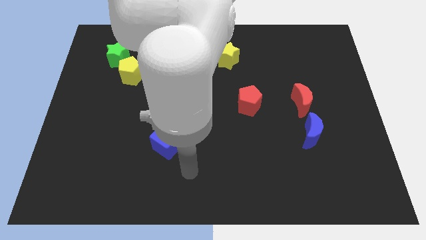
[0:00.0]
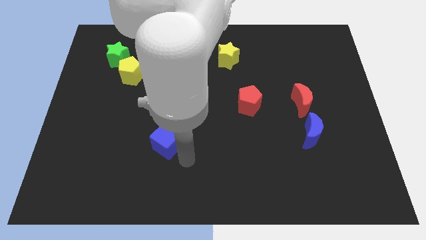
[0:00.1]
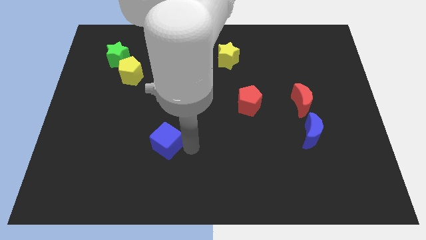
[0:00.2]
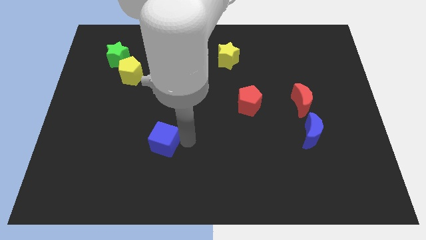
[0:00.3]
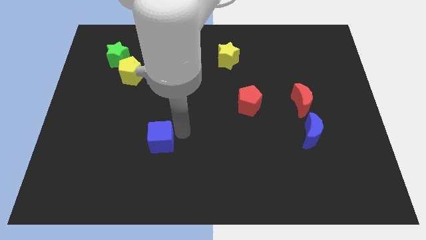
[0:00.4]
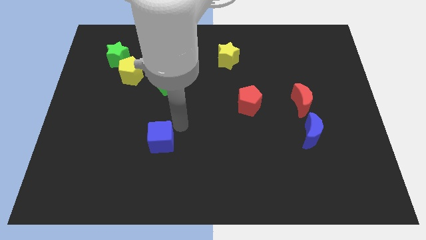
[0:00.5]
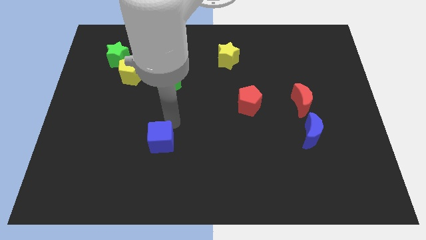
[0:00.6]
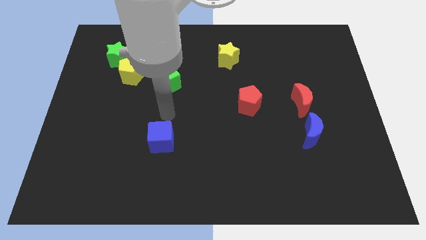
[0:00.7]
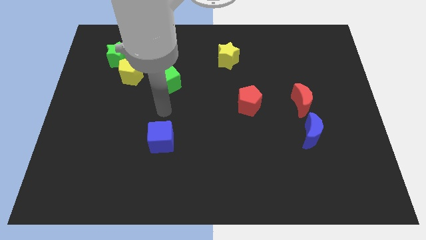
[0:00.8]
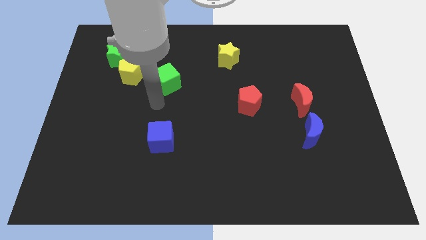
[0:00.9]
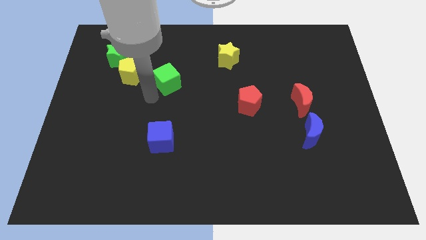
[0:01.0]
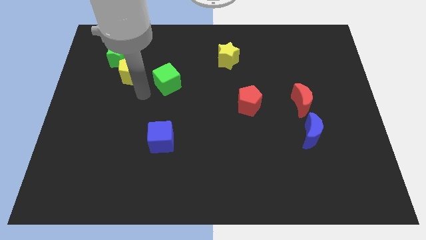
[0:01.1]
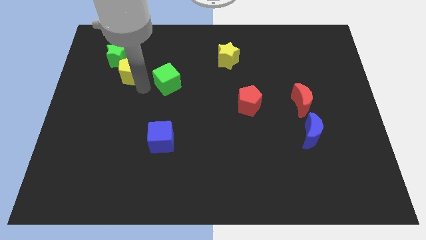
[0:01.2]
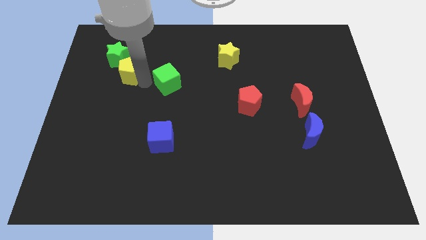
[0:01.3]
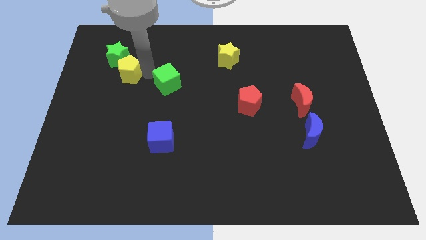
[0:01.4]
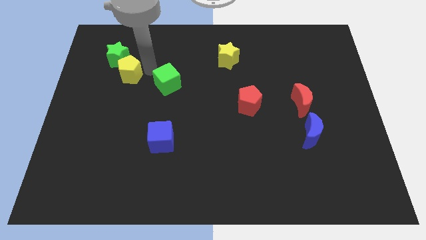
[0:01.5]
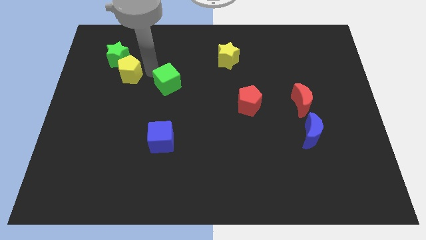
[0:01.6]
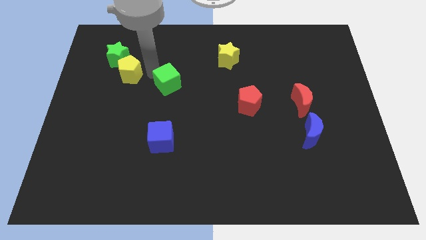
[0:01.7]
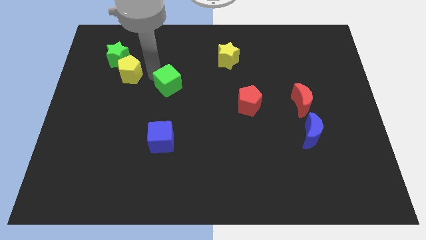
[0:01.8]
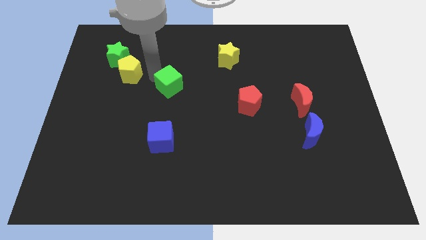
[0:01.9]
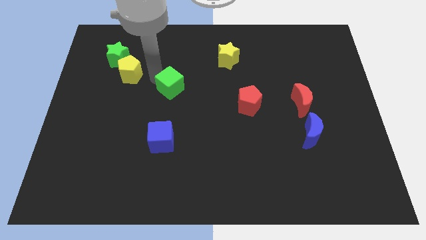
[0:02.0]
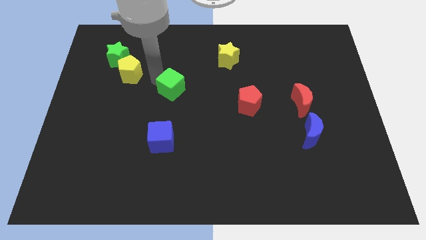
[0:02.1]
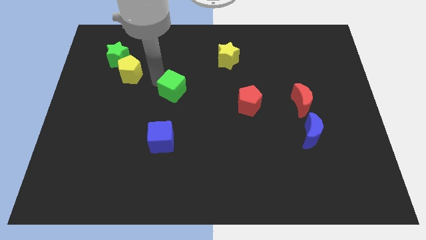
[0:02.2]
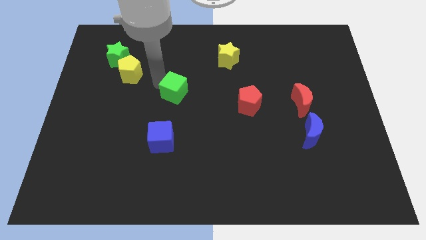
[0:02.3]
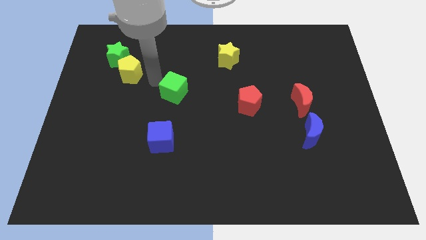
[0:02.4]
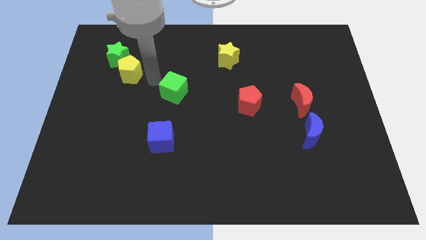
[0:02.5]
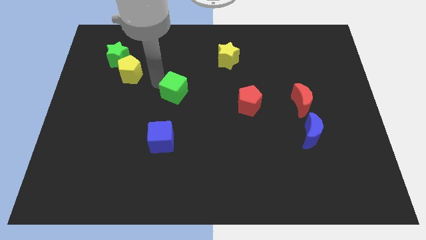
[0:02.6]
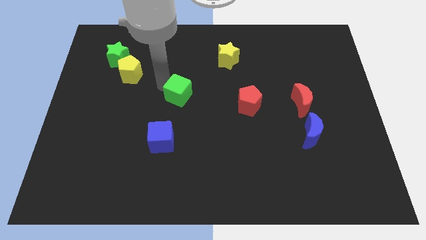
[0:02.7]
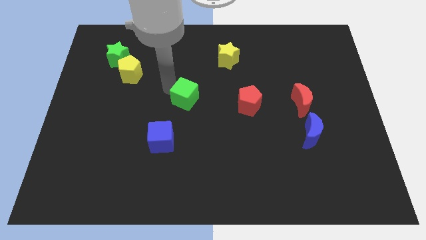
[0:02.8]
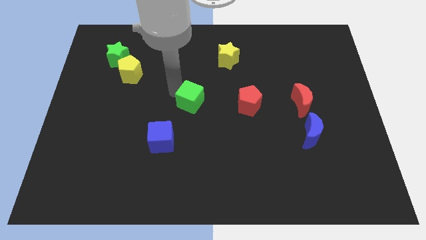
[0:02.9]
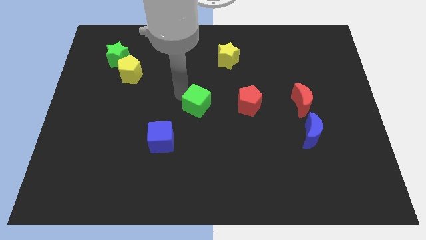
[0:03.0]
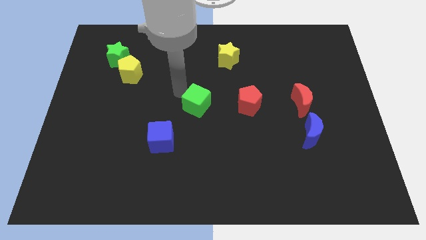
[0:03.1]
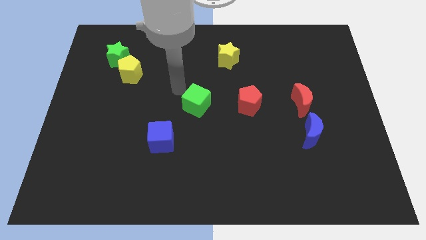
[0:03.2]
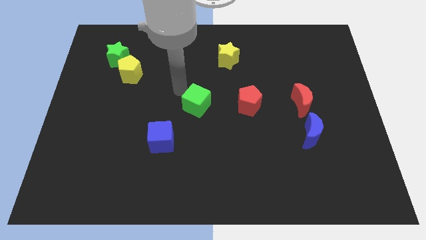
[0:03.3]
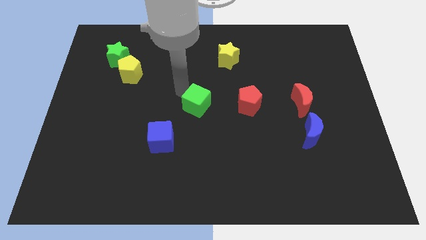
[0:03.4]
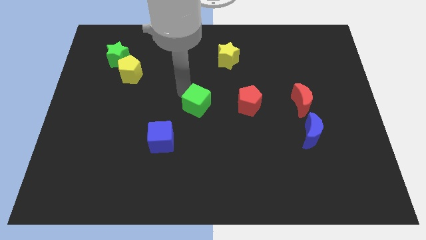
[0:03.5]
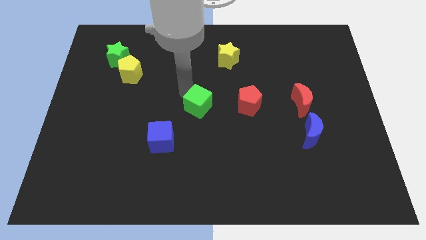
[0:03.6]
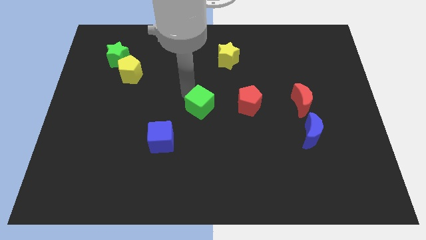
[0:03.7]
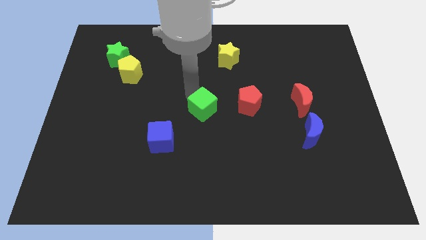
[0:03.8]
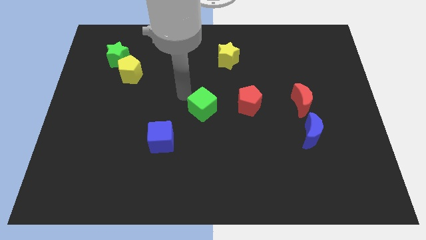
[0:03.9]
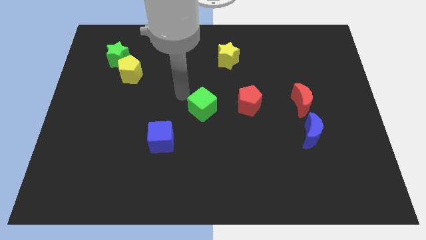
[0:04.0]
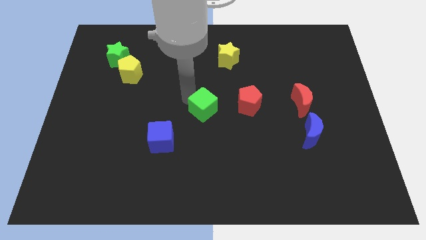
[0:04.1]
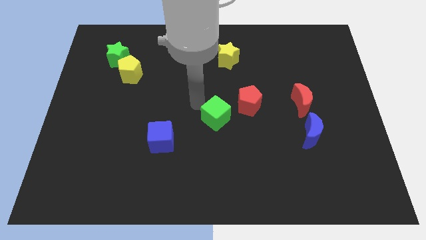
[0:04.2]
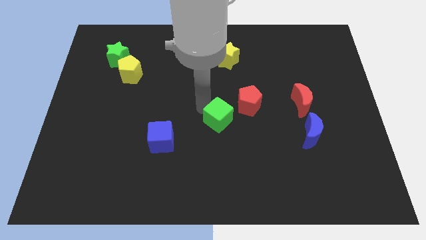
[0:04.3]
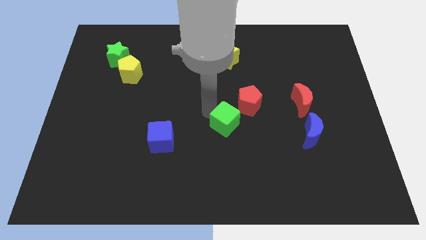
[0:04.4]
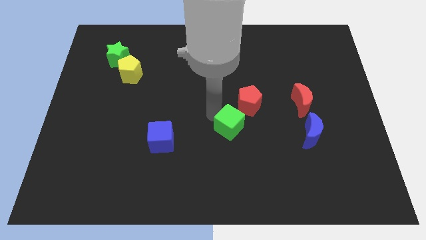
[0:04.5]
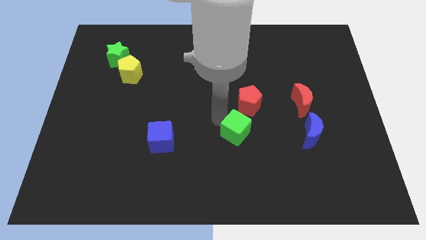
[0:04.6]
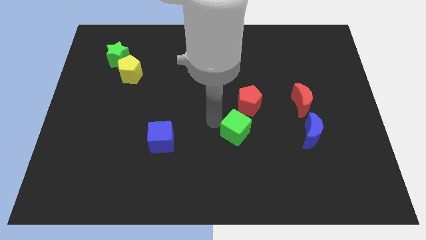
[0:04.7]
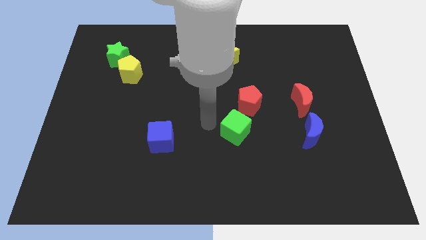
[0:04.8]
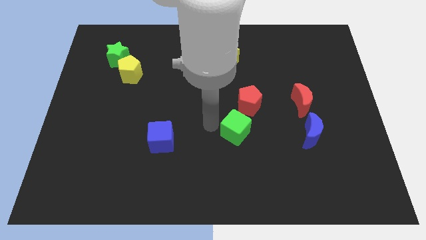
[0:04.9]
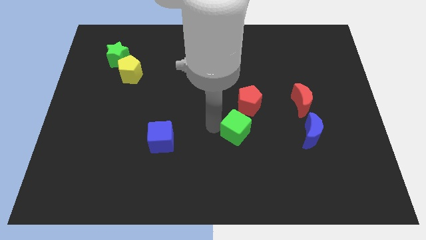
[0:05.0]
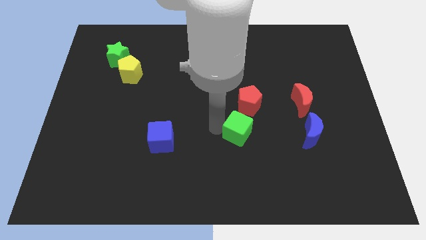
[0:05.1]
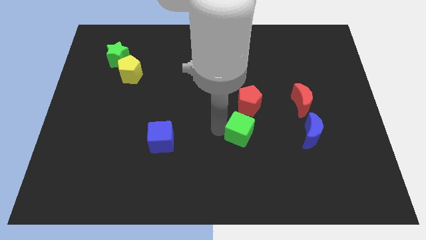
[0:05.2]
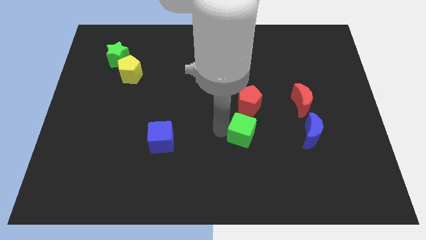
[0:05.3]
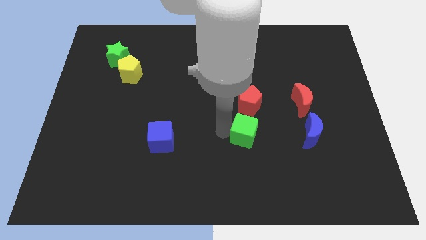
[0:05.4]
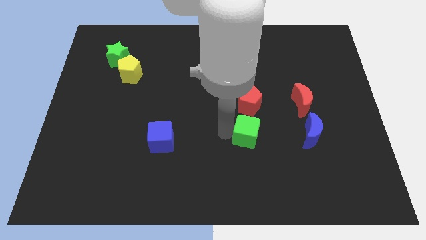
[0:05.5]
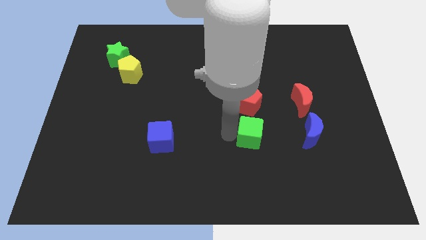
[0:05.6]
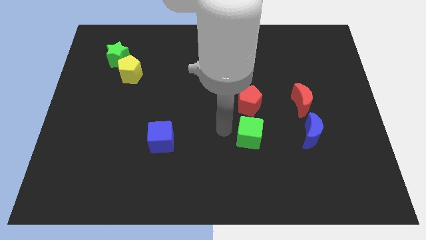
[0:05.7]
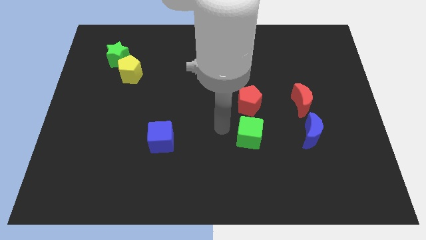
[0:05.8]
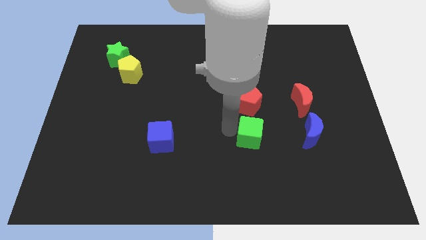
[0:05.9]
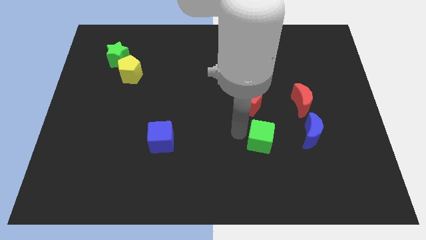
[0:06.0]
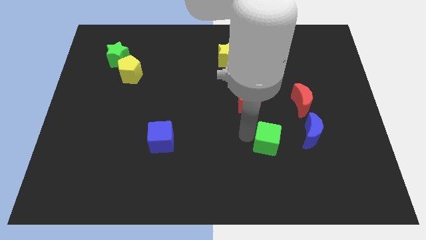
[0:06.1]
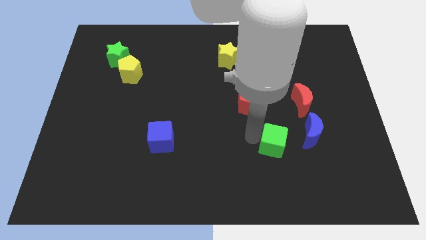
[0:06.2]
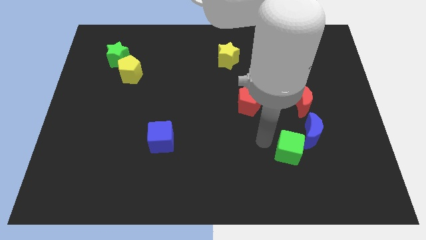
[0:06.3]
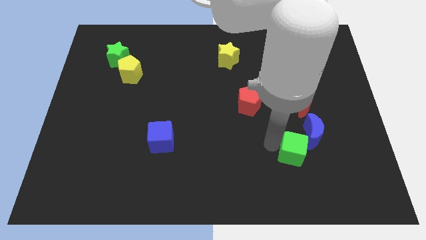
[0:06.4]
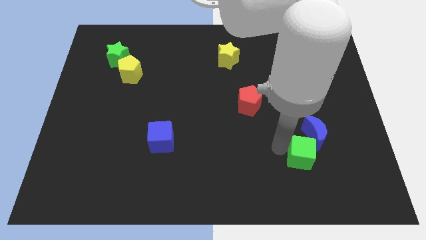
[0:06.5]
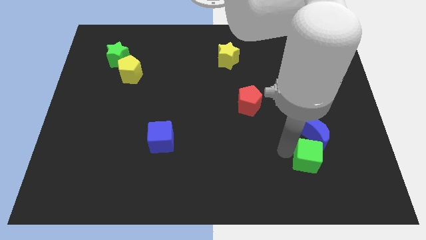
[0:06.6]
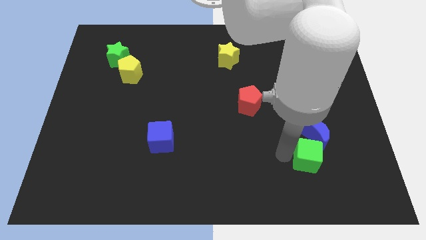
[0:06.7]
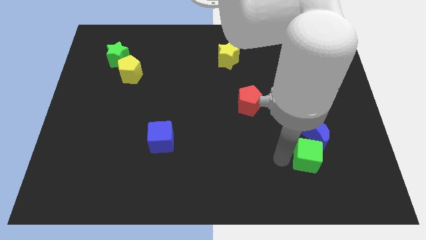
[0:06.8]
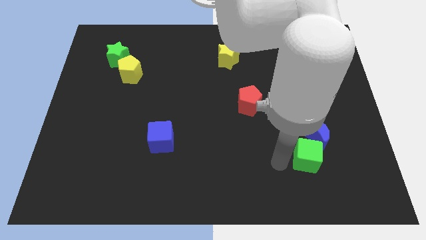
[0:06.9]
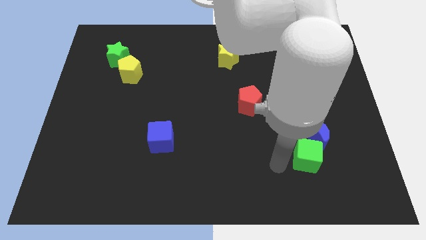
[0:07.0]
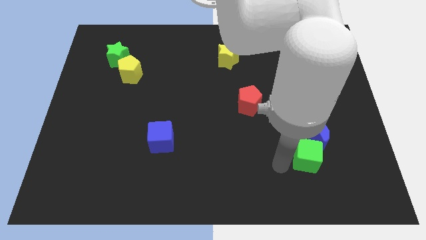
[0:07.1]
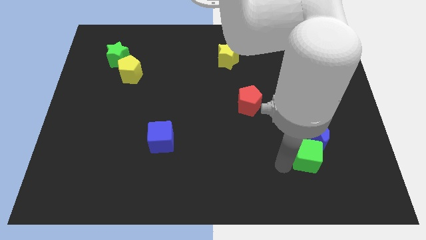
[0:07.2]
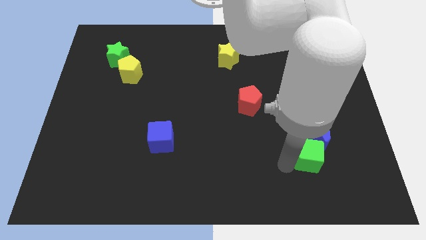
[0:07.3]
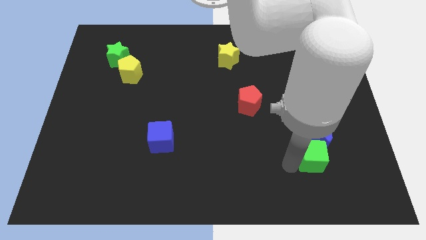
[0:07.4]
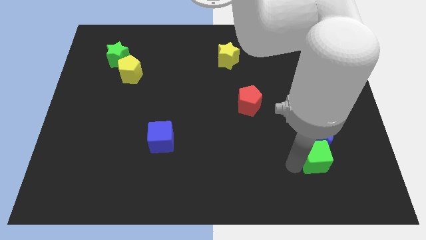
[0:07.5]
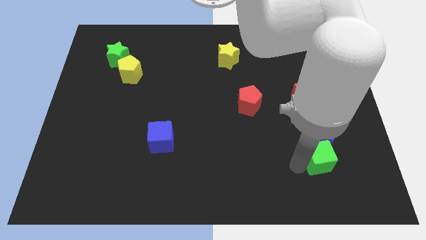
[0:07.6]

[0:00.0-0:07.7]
push the green cube to the bottom right side of the blue moon
